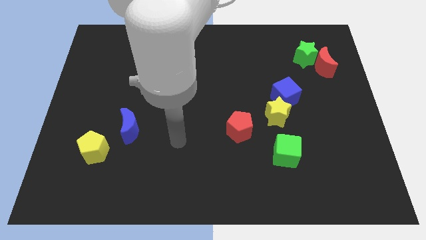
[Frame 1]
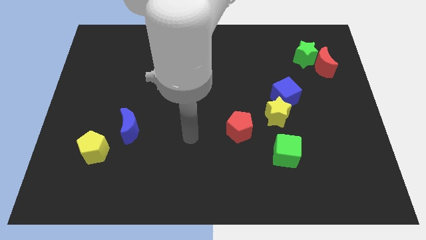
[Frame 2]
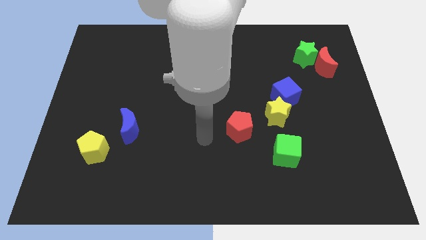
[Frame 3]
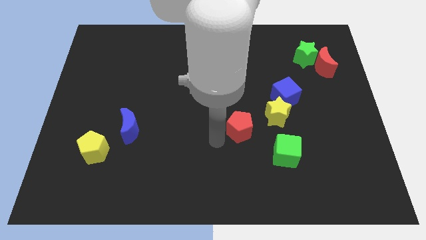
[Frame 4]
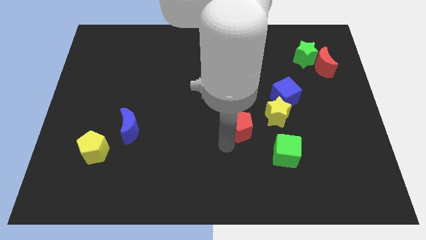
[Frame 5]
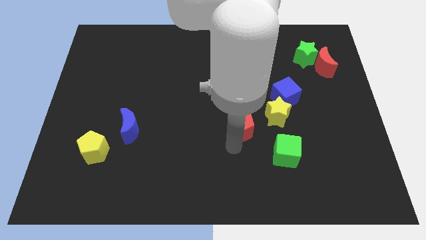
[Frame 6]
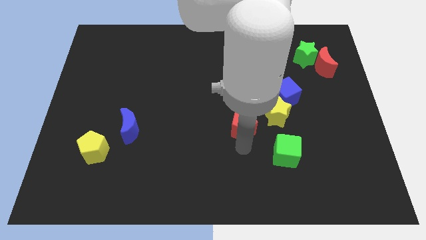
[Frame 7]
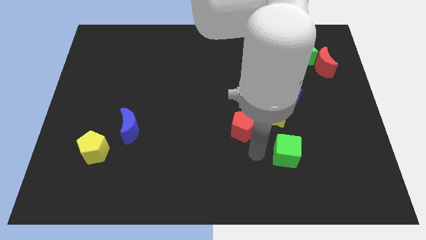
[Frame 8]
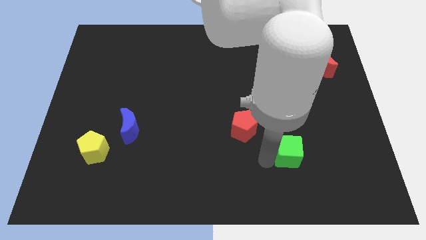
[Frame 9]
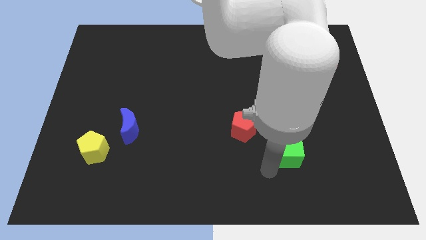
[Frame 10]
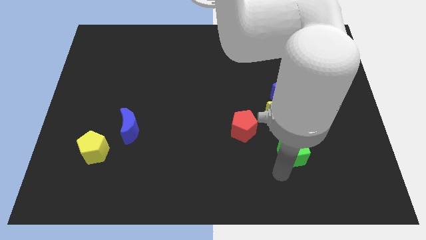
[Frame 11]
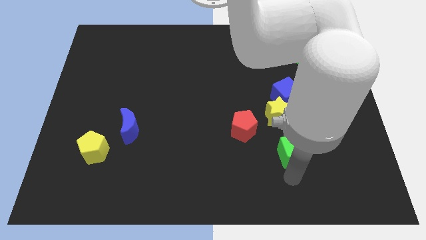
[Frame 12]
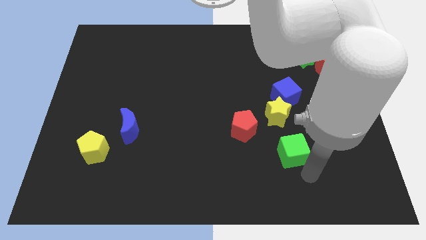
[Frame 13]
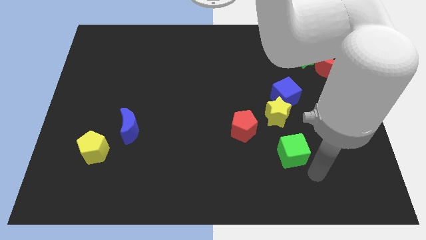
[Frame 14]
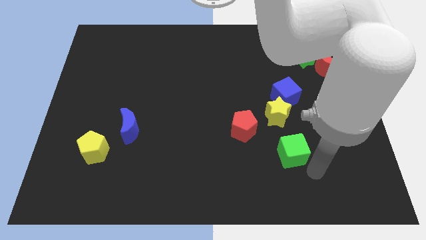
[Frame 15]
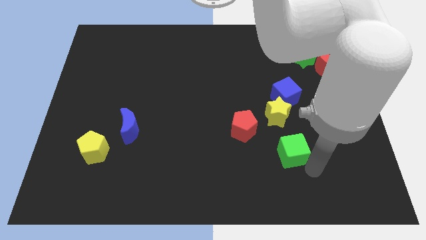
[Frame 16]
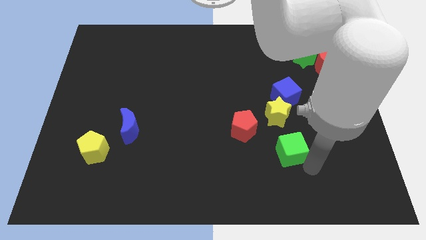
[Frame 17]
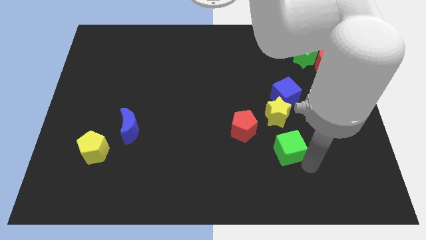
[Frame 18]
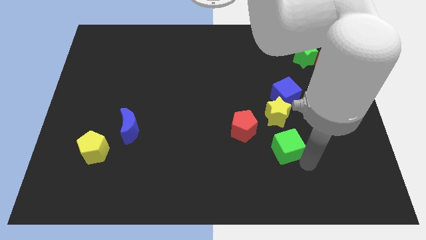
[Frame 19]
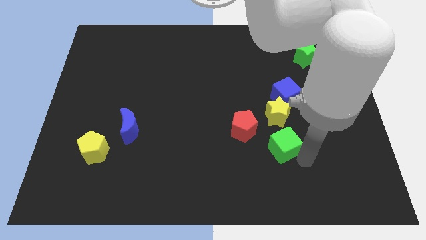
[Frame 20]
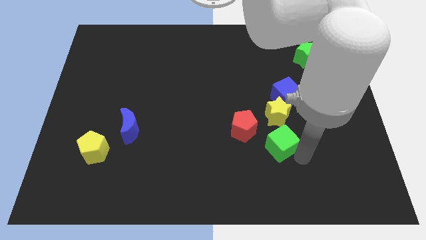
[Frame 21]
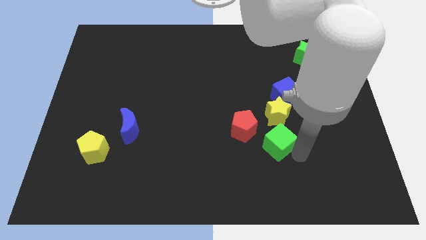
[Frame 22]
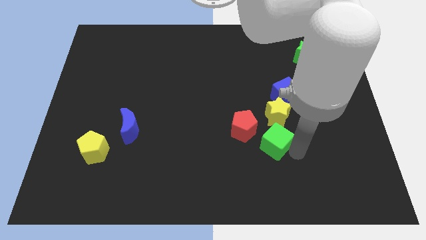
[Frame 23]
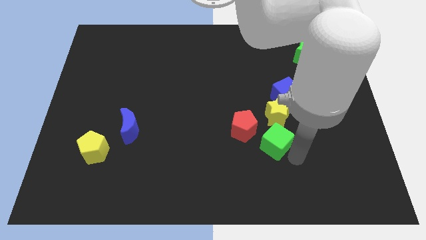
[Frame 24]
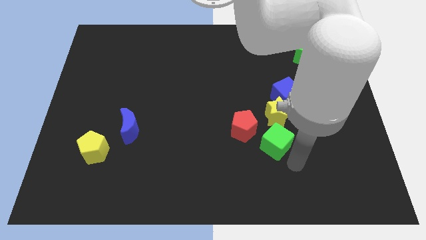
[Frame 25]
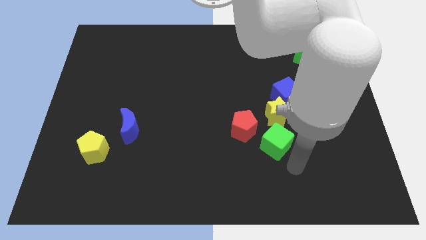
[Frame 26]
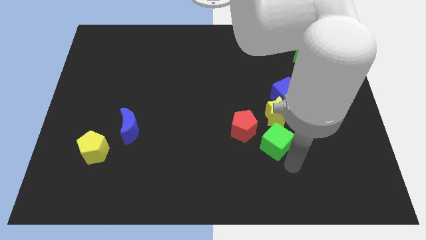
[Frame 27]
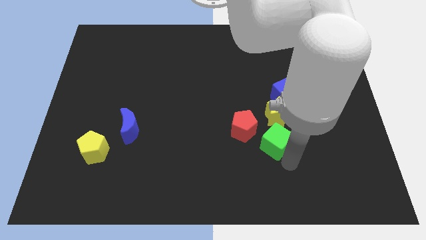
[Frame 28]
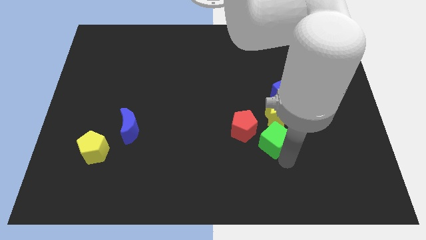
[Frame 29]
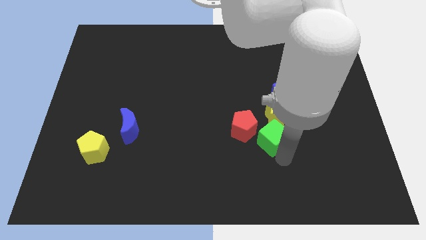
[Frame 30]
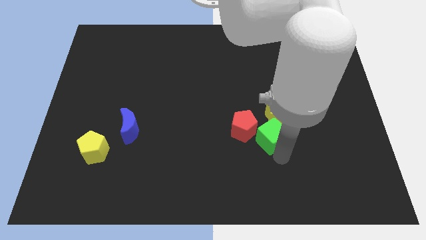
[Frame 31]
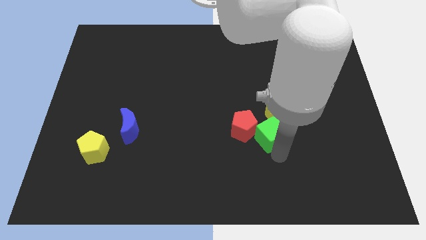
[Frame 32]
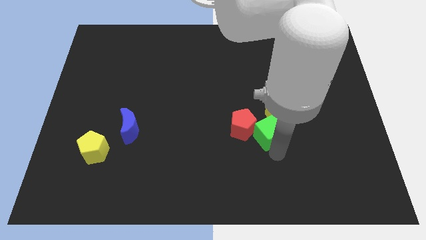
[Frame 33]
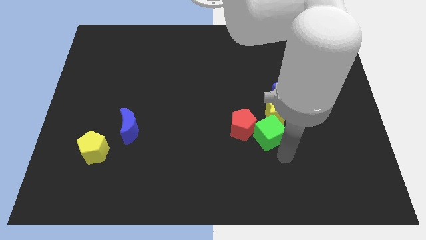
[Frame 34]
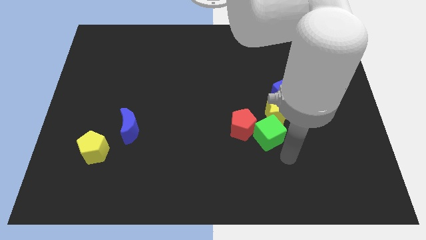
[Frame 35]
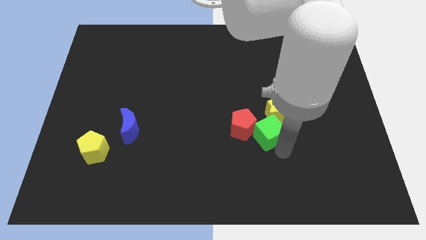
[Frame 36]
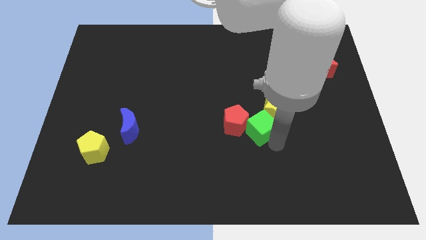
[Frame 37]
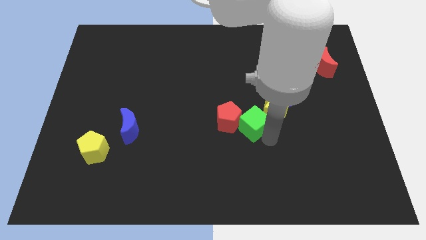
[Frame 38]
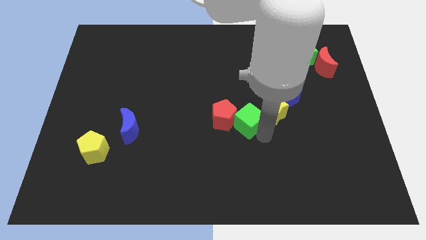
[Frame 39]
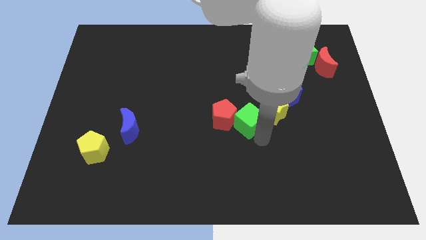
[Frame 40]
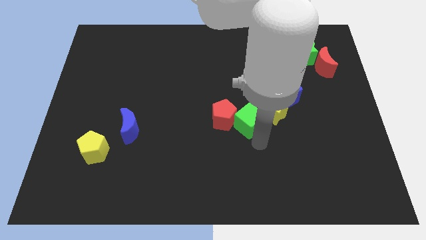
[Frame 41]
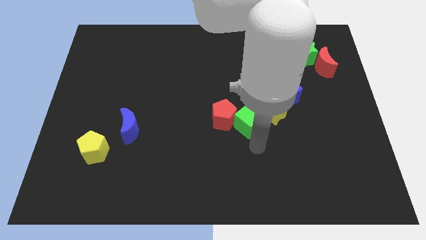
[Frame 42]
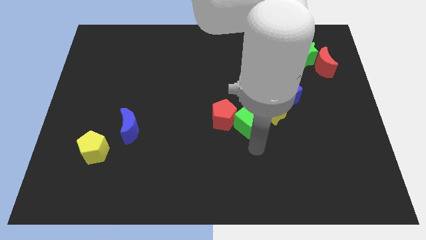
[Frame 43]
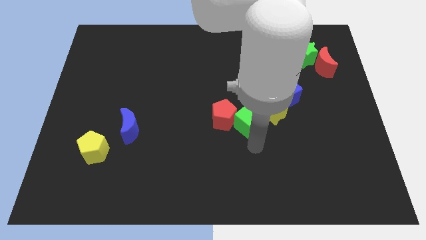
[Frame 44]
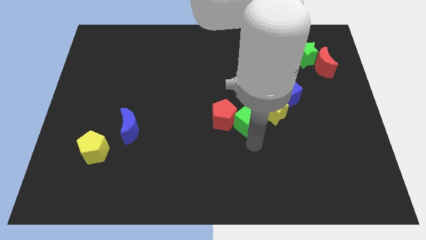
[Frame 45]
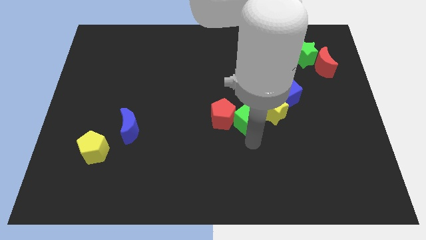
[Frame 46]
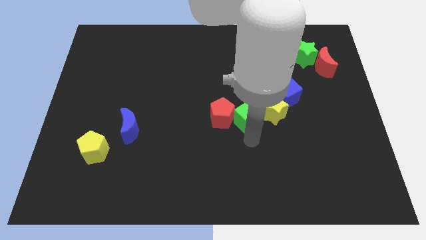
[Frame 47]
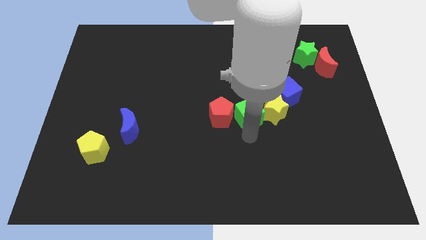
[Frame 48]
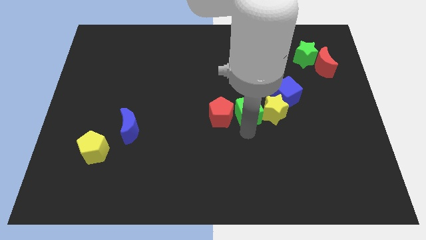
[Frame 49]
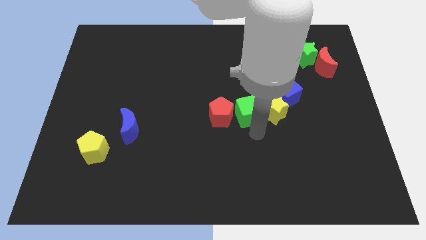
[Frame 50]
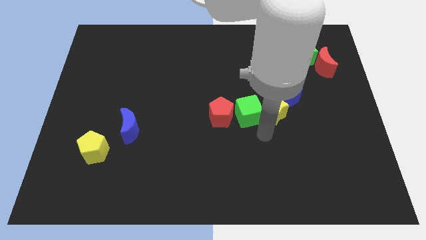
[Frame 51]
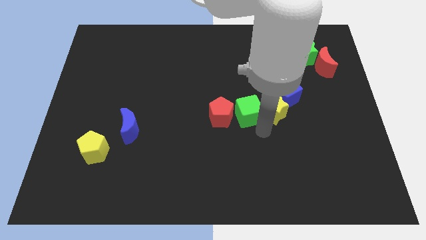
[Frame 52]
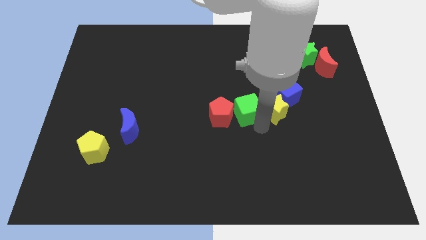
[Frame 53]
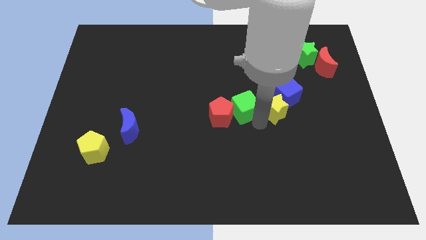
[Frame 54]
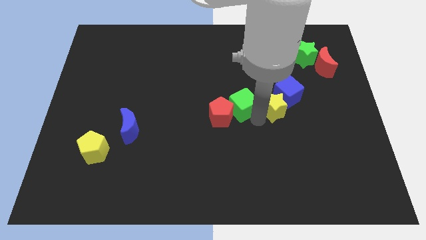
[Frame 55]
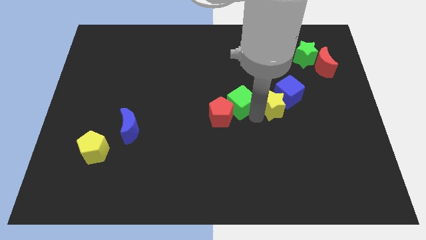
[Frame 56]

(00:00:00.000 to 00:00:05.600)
push the green cube to the top side of the red pentagon

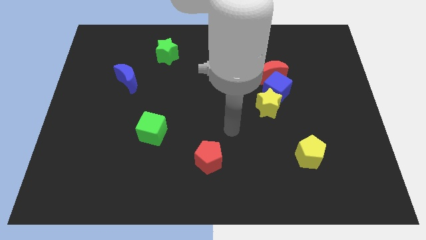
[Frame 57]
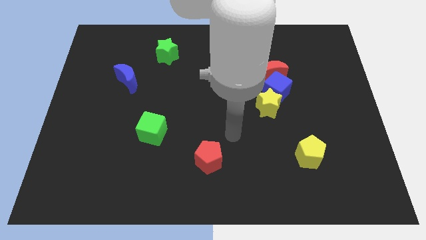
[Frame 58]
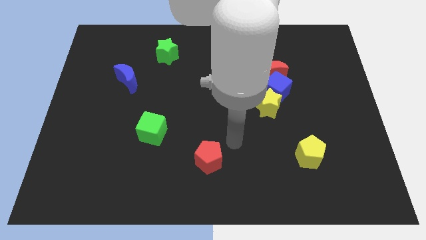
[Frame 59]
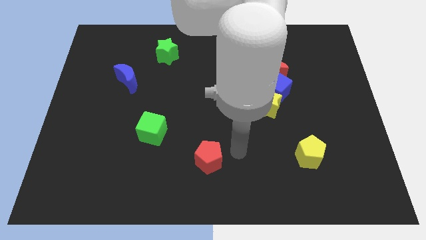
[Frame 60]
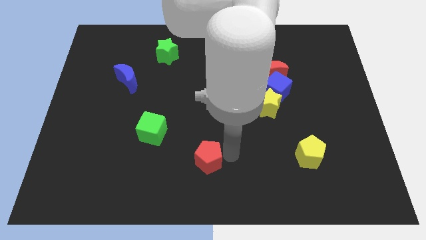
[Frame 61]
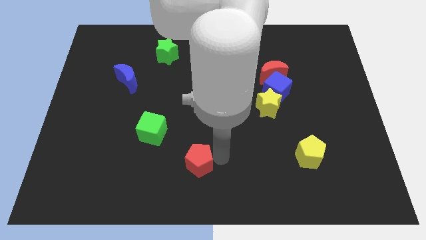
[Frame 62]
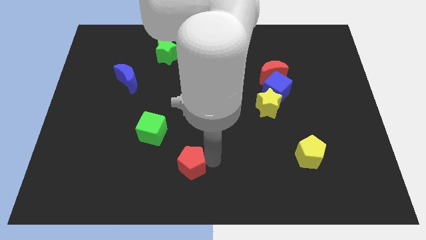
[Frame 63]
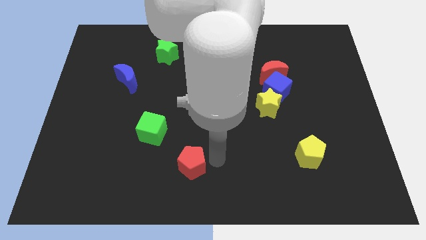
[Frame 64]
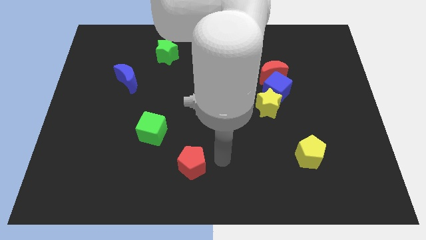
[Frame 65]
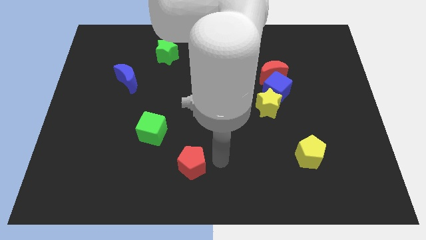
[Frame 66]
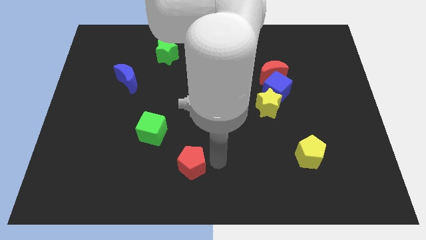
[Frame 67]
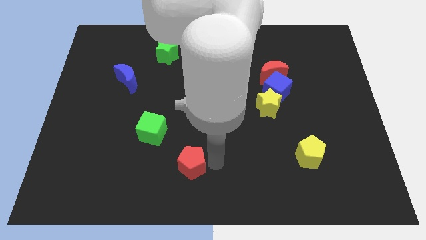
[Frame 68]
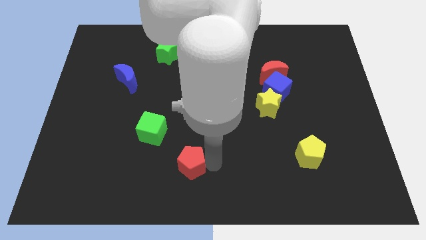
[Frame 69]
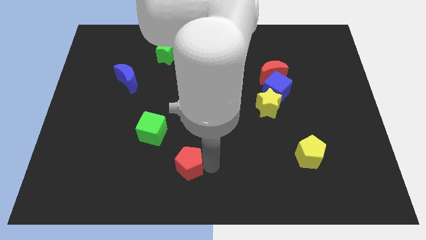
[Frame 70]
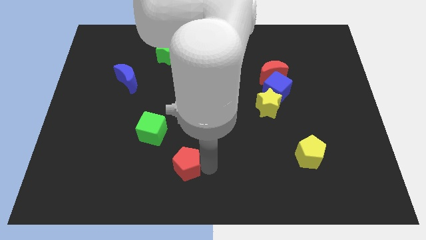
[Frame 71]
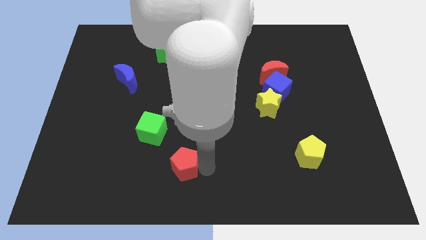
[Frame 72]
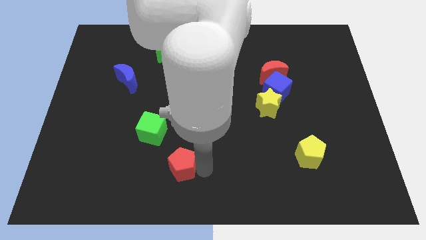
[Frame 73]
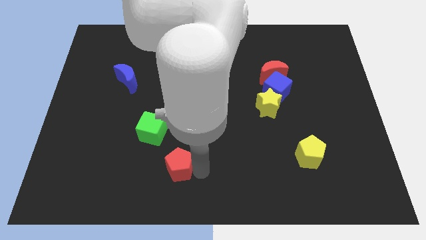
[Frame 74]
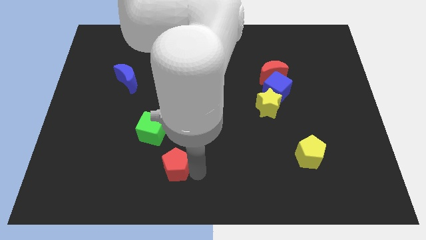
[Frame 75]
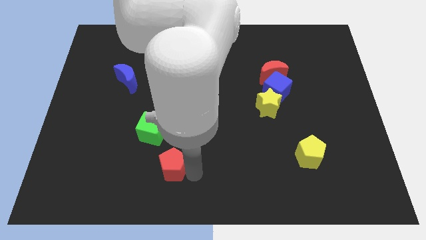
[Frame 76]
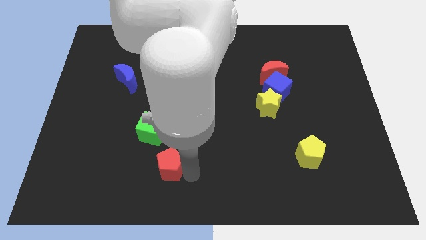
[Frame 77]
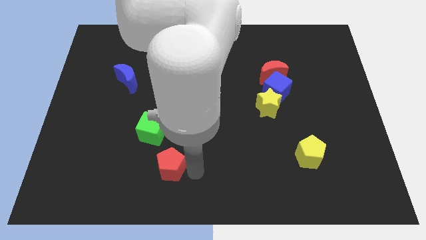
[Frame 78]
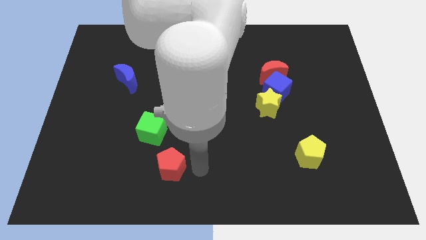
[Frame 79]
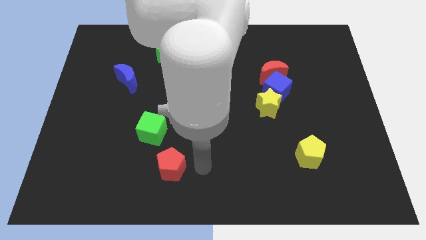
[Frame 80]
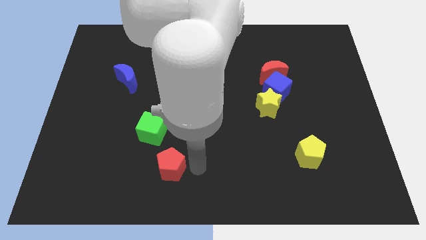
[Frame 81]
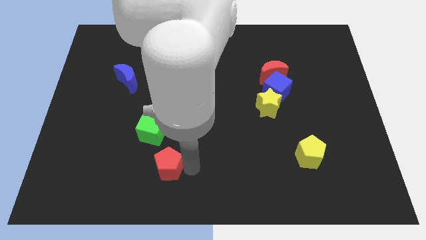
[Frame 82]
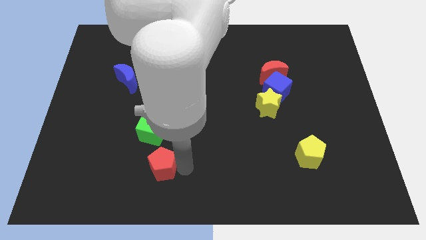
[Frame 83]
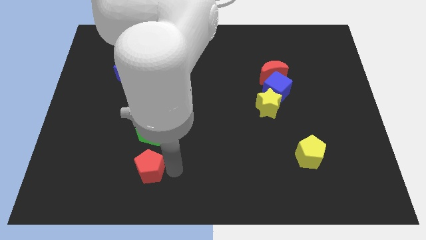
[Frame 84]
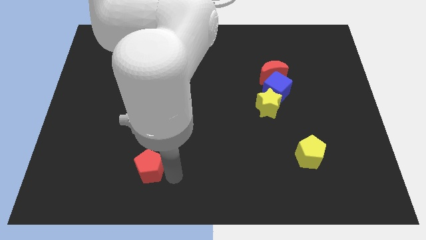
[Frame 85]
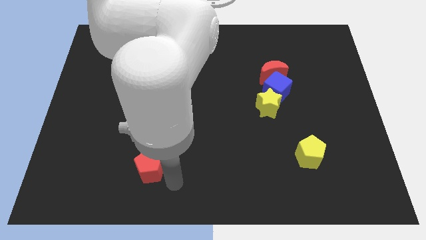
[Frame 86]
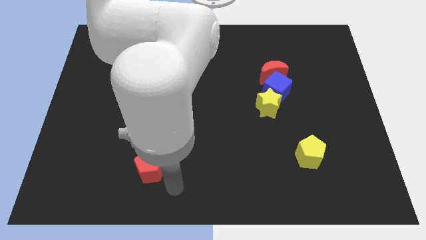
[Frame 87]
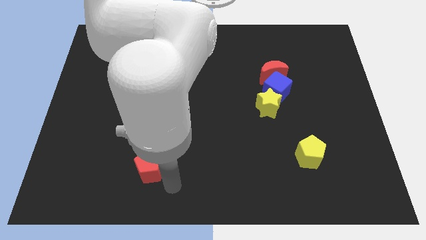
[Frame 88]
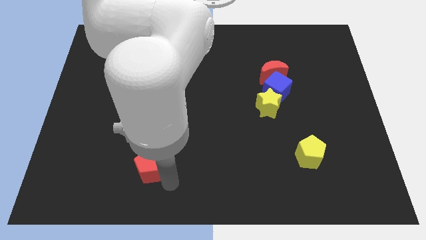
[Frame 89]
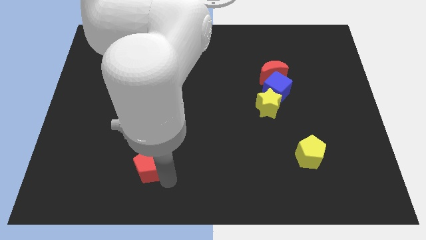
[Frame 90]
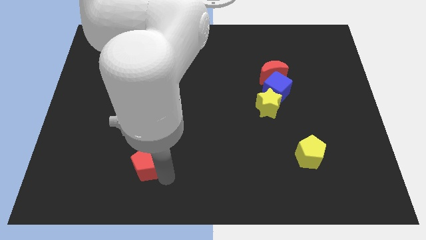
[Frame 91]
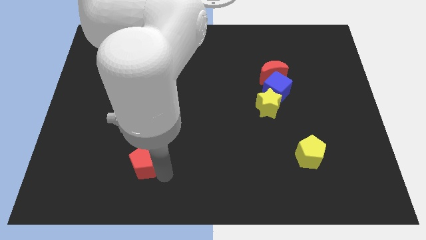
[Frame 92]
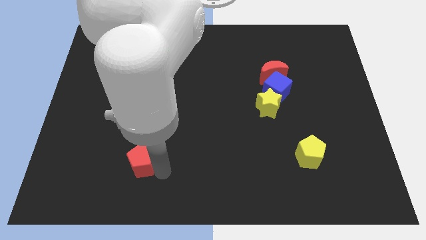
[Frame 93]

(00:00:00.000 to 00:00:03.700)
move the red pentagon diagonally down and to the left of the green cube
